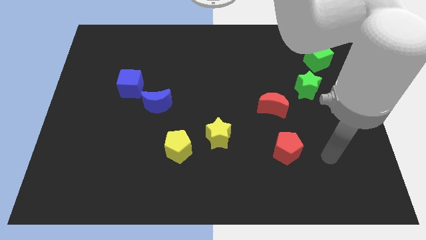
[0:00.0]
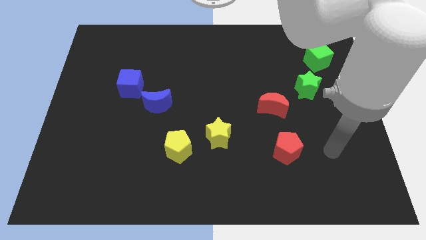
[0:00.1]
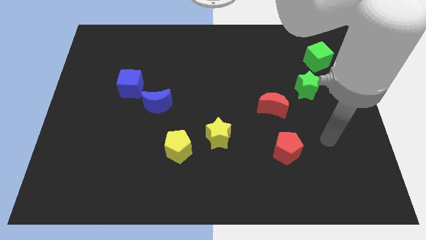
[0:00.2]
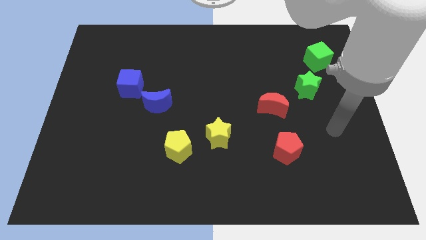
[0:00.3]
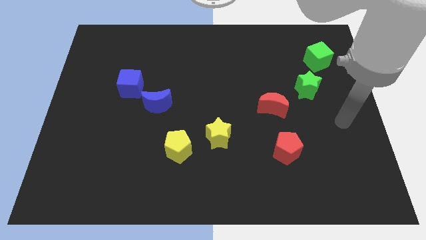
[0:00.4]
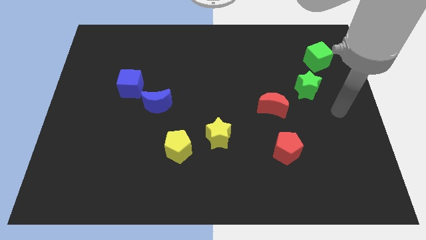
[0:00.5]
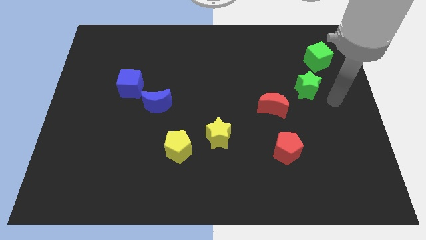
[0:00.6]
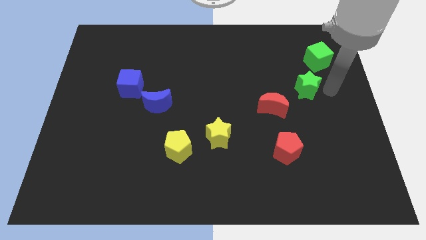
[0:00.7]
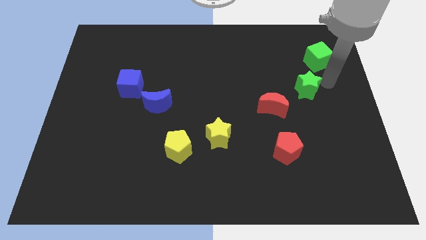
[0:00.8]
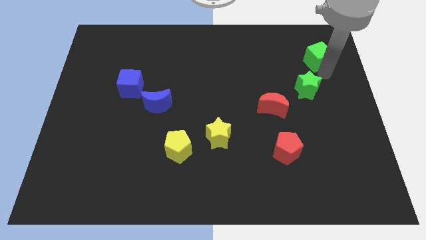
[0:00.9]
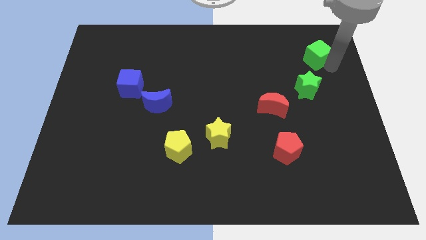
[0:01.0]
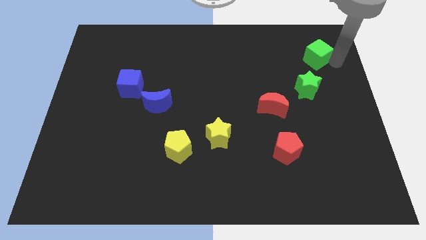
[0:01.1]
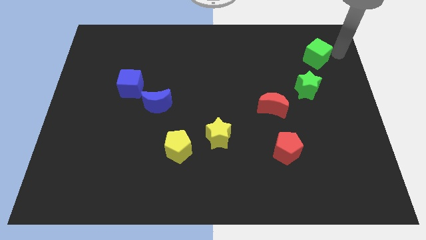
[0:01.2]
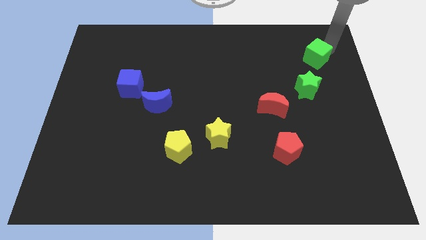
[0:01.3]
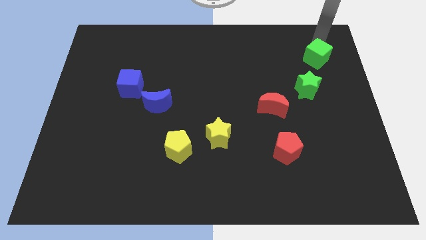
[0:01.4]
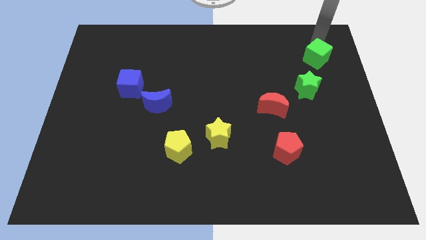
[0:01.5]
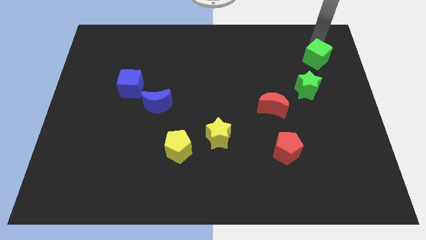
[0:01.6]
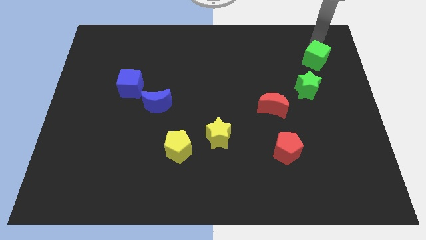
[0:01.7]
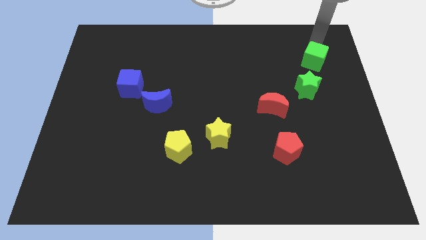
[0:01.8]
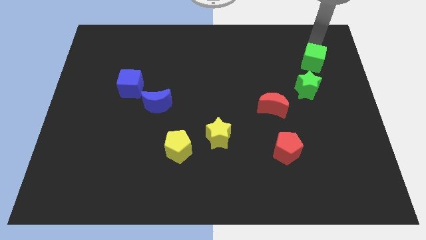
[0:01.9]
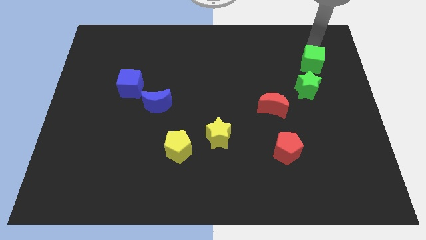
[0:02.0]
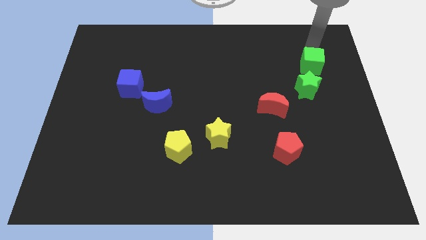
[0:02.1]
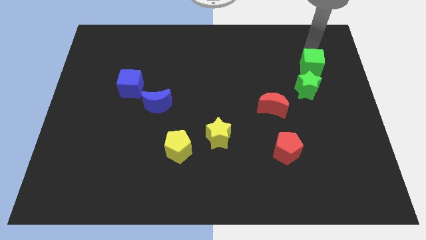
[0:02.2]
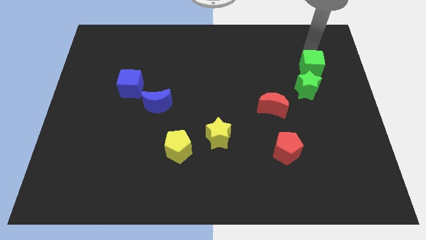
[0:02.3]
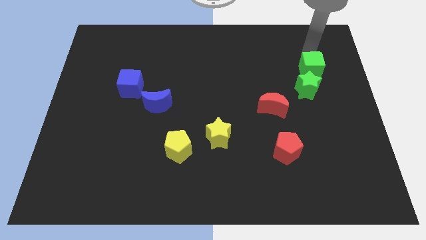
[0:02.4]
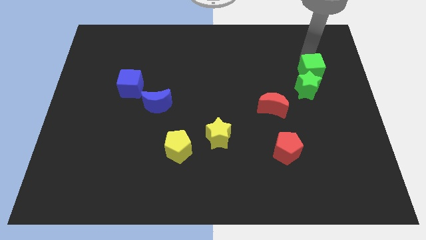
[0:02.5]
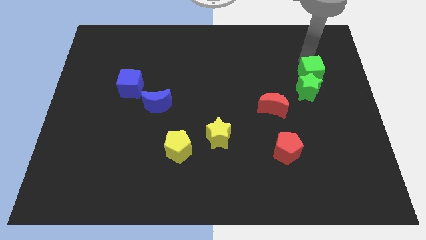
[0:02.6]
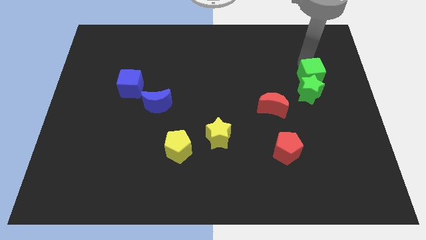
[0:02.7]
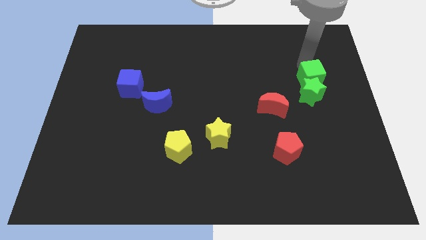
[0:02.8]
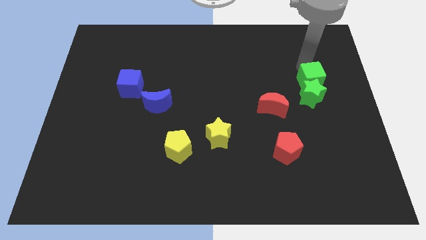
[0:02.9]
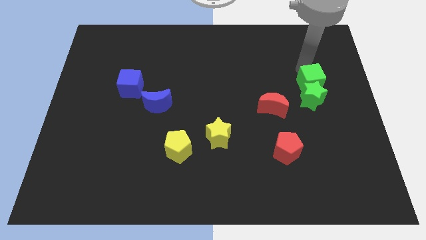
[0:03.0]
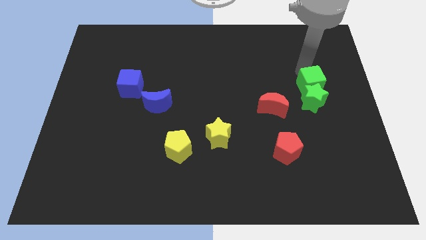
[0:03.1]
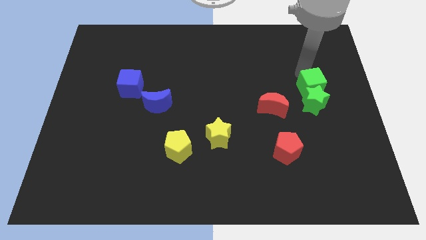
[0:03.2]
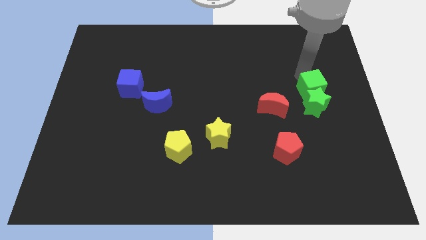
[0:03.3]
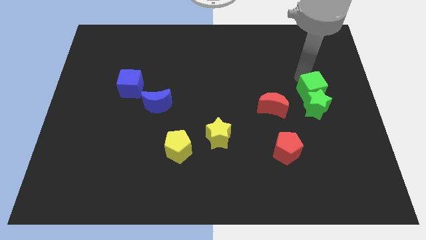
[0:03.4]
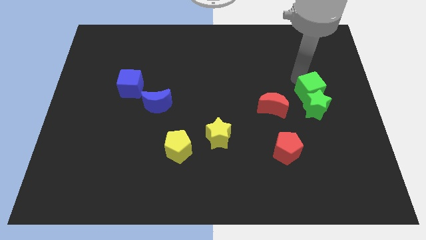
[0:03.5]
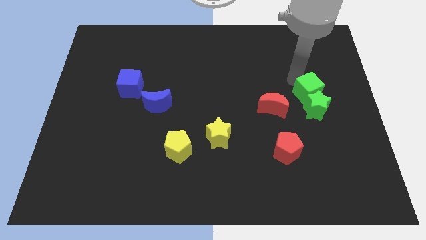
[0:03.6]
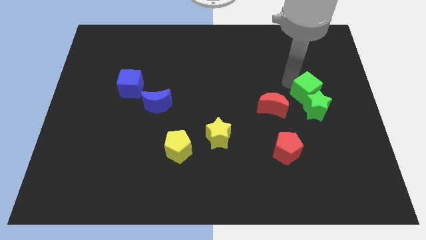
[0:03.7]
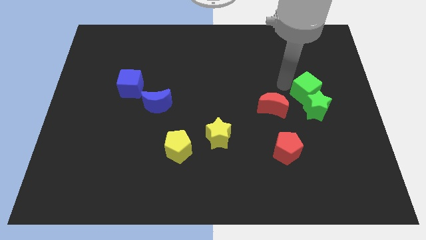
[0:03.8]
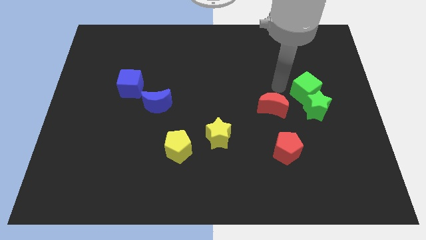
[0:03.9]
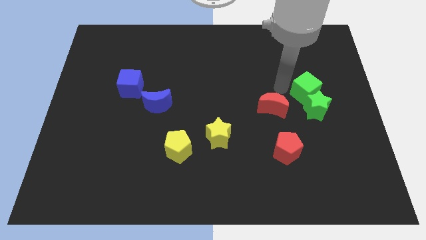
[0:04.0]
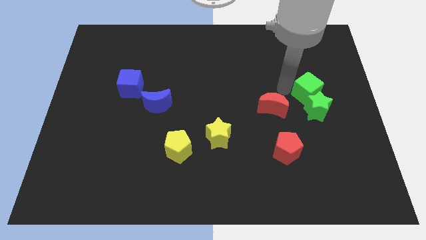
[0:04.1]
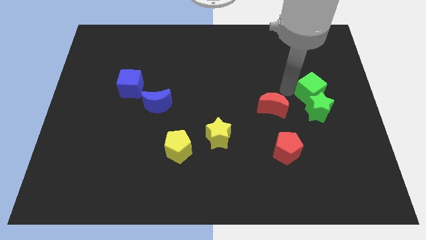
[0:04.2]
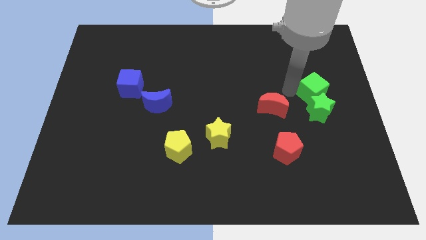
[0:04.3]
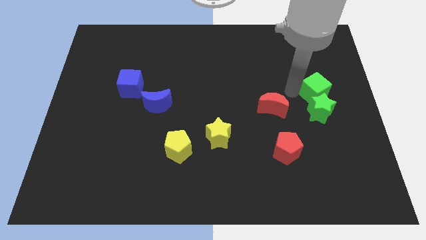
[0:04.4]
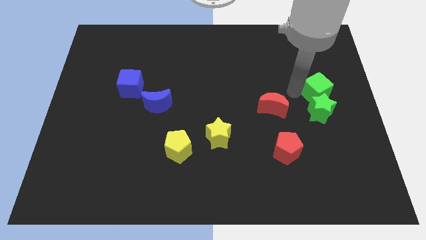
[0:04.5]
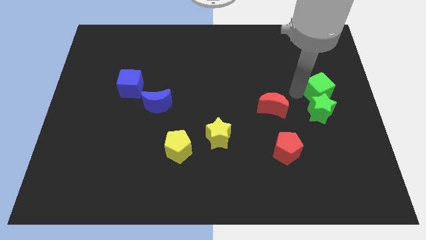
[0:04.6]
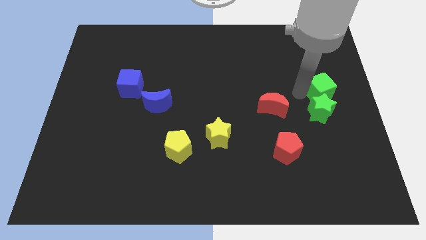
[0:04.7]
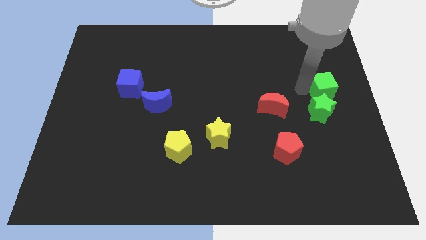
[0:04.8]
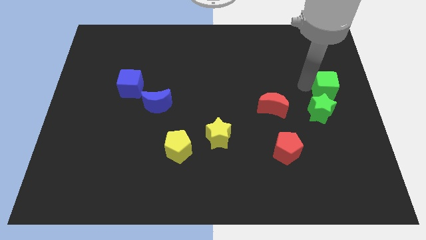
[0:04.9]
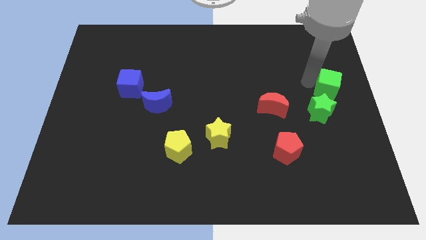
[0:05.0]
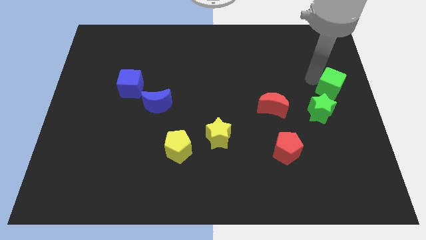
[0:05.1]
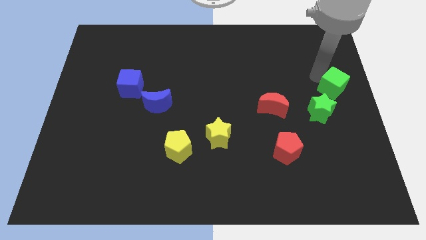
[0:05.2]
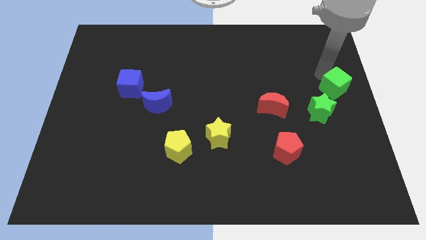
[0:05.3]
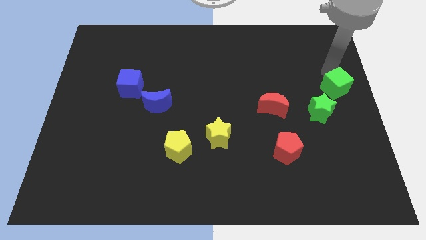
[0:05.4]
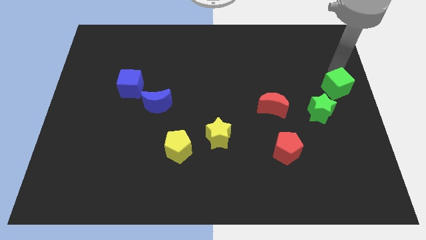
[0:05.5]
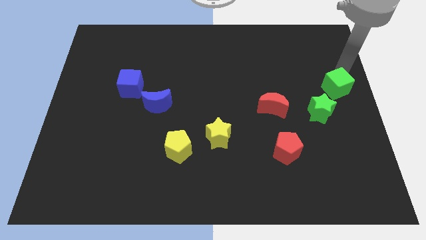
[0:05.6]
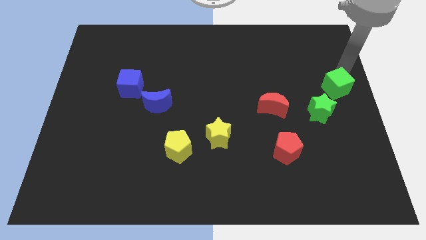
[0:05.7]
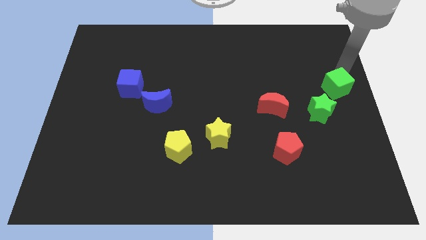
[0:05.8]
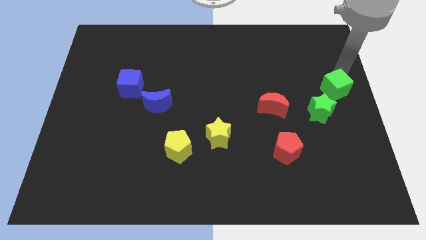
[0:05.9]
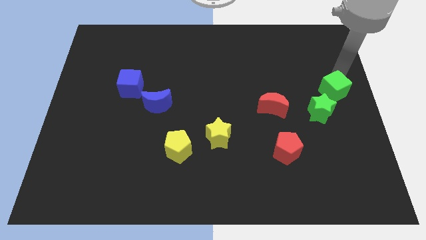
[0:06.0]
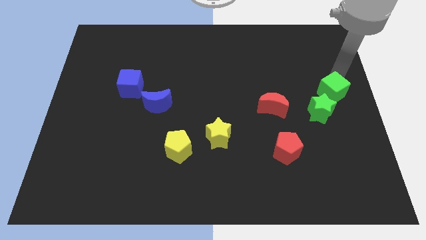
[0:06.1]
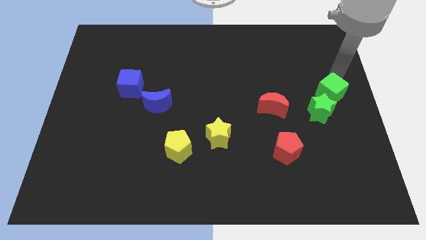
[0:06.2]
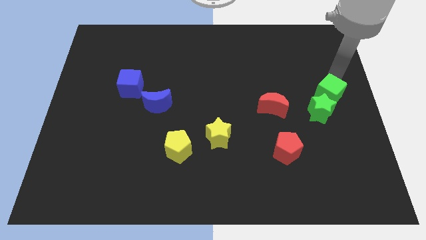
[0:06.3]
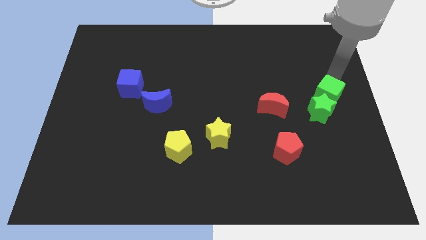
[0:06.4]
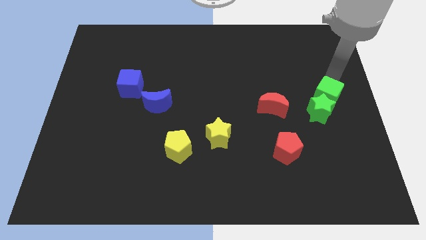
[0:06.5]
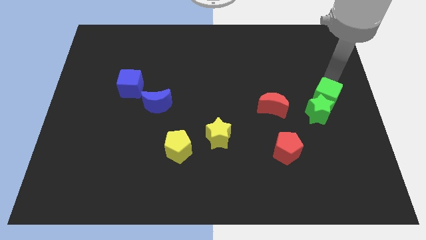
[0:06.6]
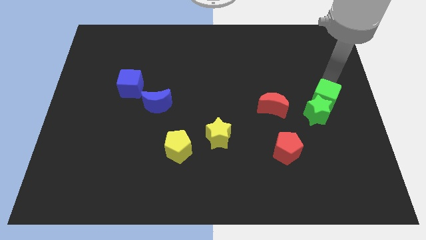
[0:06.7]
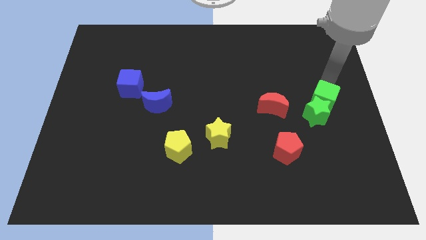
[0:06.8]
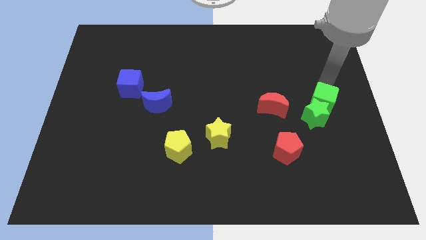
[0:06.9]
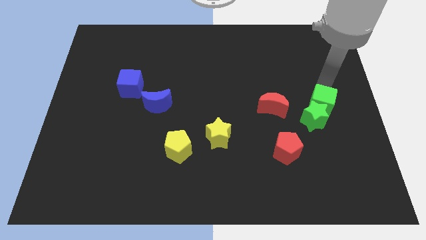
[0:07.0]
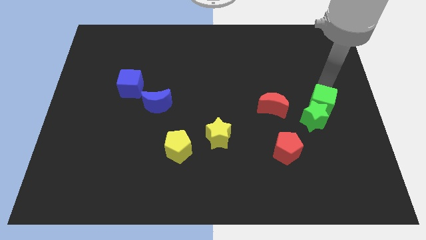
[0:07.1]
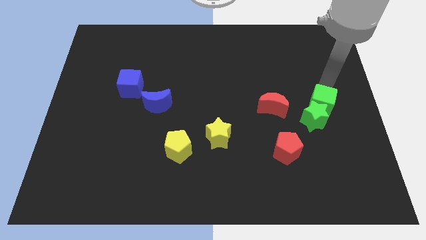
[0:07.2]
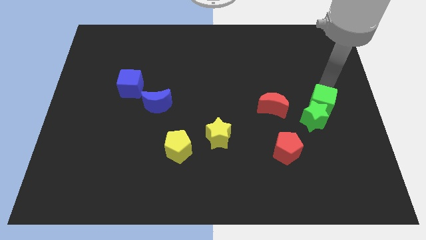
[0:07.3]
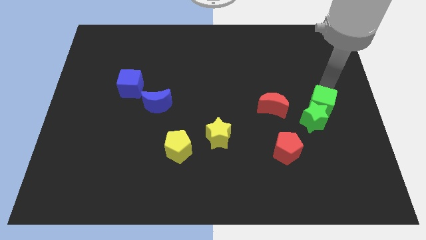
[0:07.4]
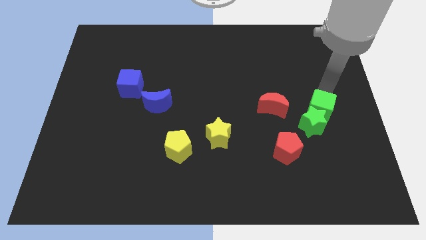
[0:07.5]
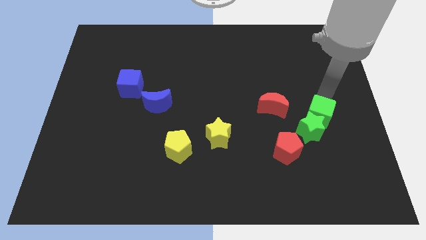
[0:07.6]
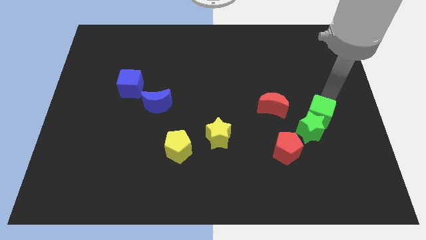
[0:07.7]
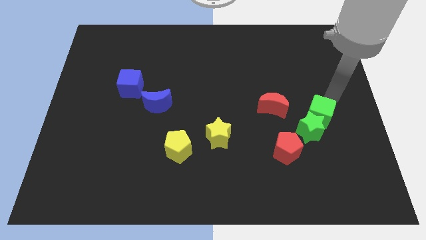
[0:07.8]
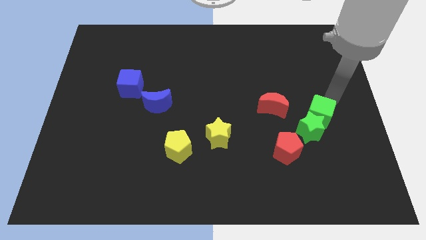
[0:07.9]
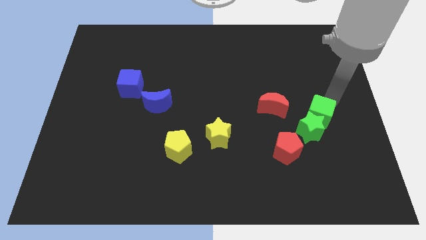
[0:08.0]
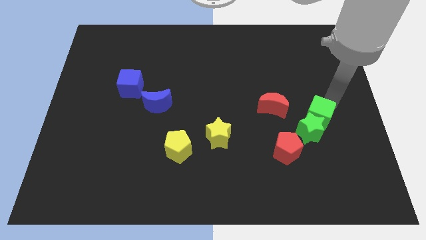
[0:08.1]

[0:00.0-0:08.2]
move the green cube diagonally up and to the right of the red pentagon

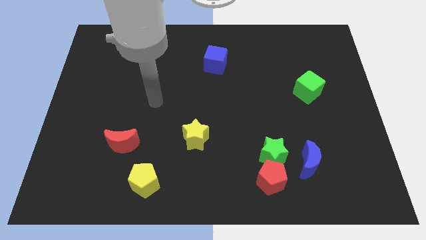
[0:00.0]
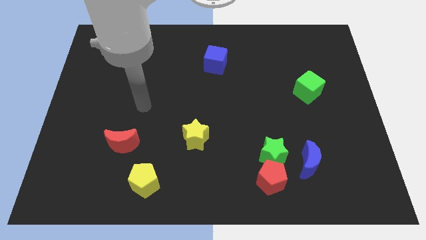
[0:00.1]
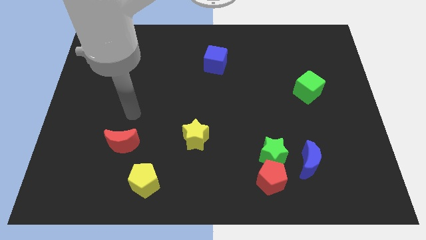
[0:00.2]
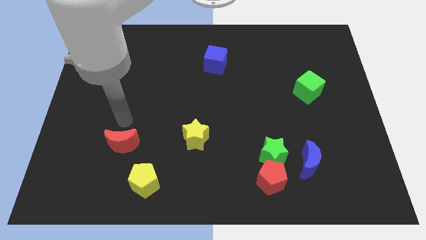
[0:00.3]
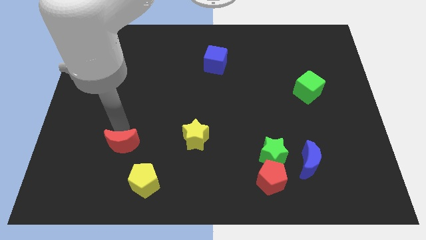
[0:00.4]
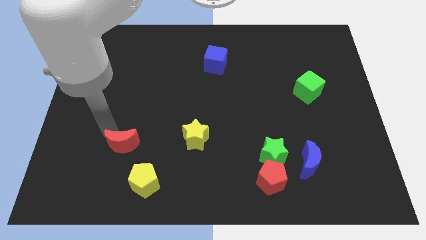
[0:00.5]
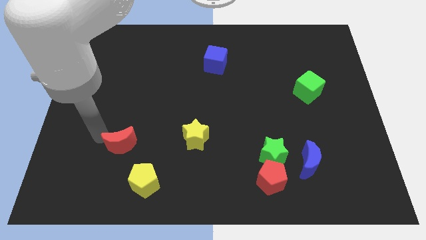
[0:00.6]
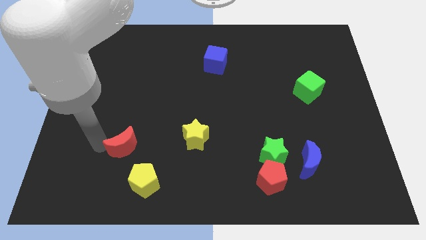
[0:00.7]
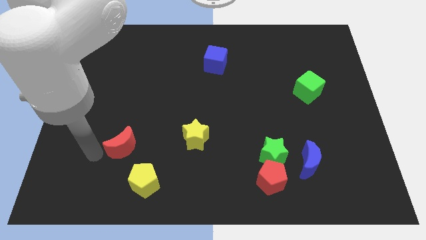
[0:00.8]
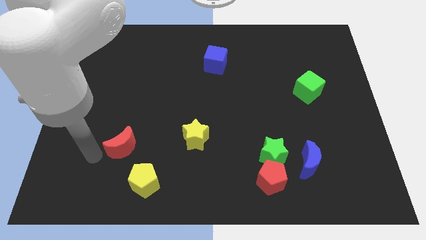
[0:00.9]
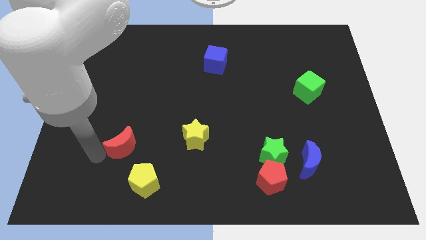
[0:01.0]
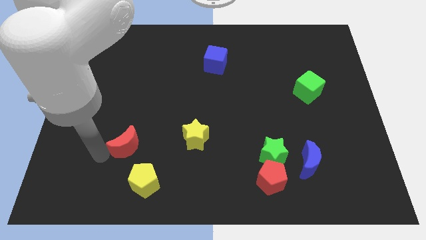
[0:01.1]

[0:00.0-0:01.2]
put the red moon to the top of the yellow pentagon
